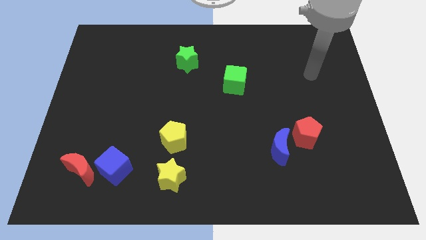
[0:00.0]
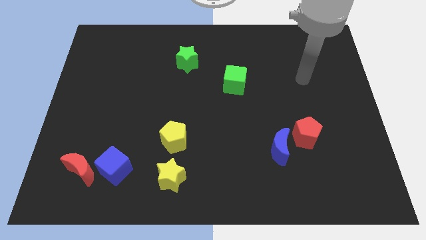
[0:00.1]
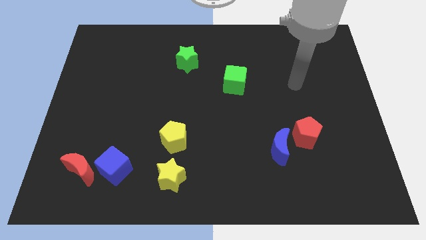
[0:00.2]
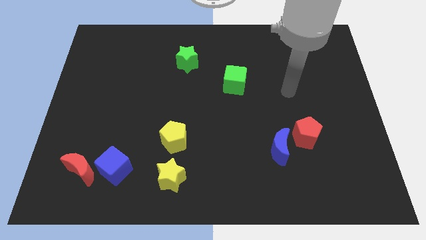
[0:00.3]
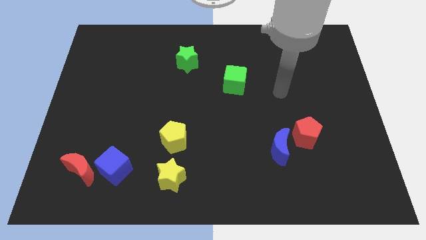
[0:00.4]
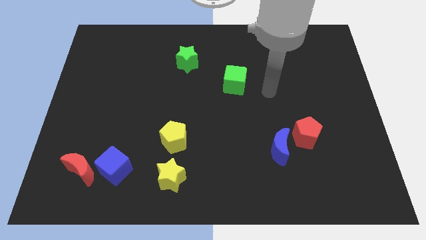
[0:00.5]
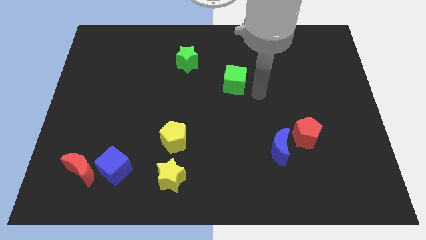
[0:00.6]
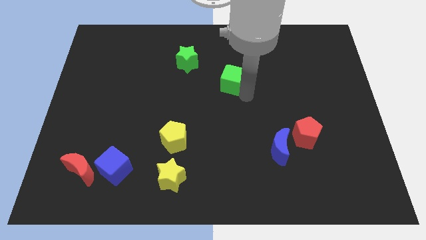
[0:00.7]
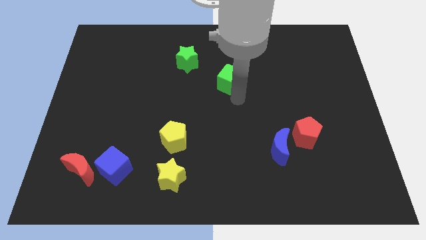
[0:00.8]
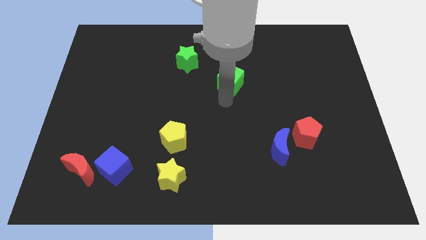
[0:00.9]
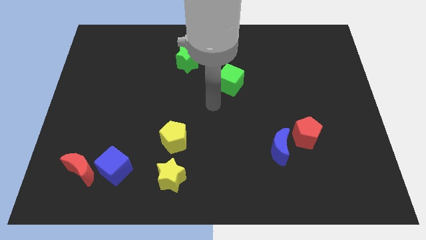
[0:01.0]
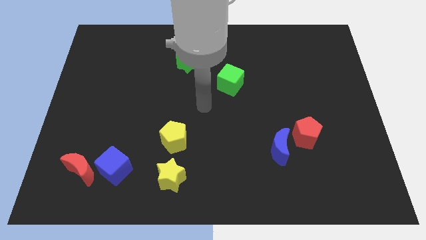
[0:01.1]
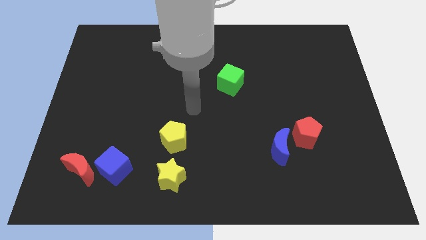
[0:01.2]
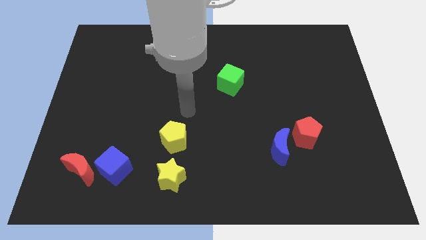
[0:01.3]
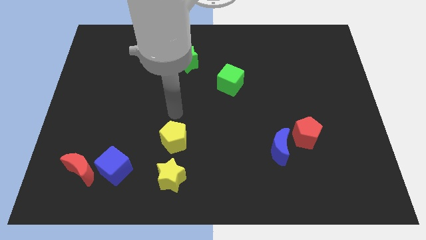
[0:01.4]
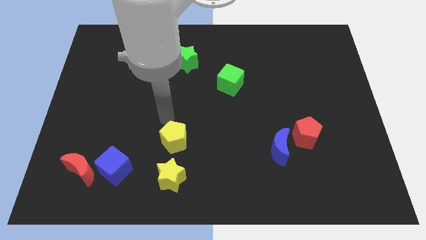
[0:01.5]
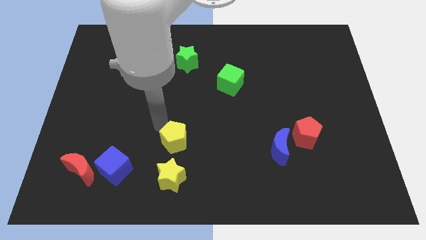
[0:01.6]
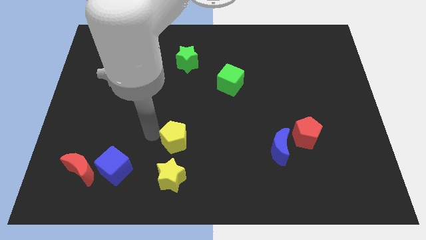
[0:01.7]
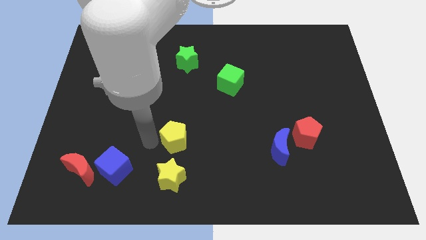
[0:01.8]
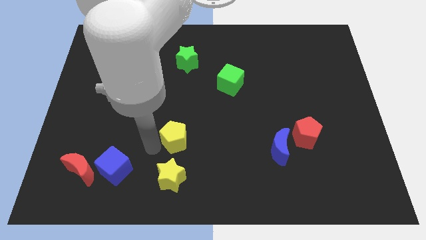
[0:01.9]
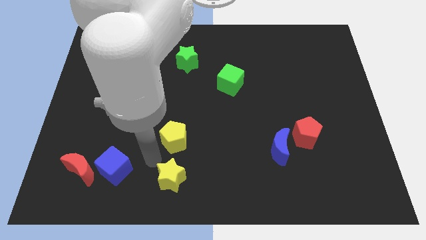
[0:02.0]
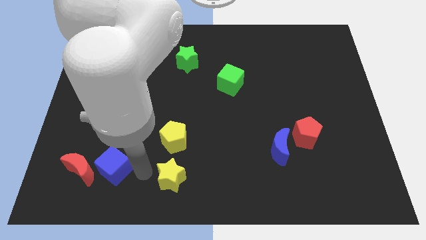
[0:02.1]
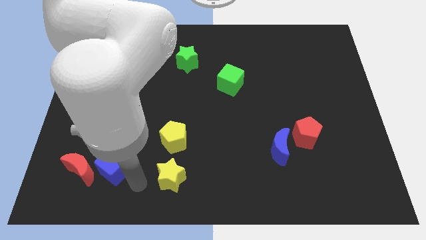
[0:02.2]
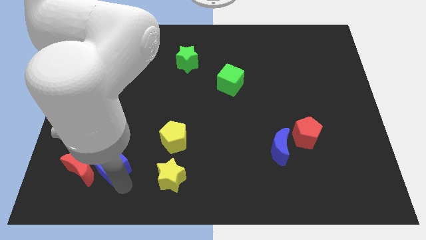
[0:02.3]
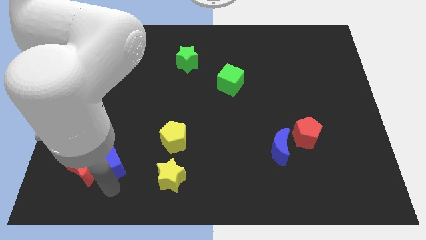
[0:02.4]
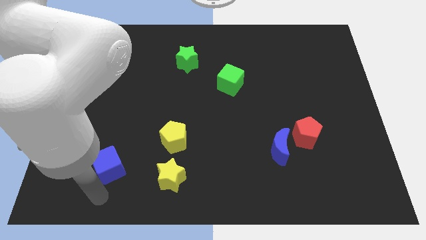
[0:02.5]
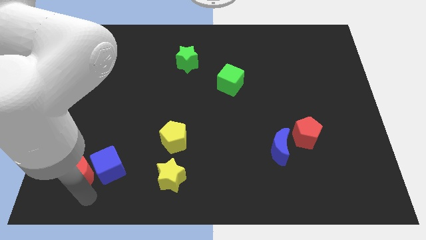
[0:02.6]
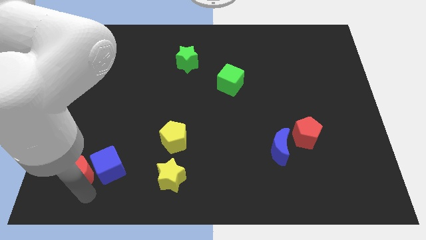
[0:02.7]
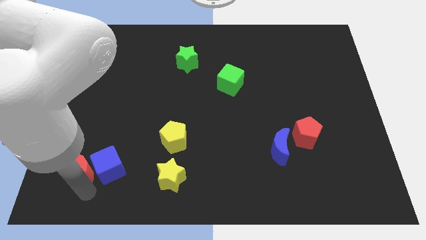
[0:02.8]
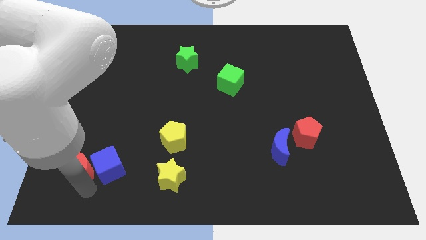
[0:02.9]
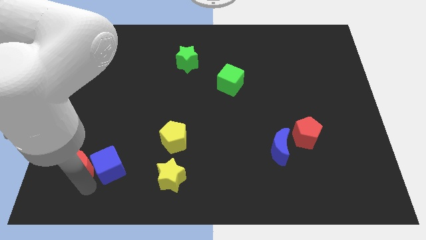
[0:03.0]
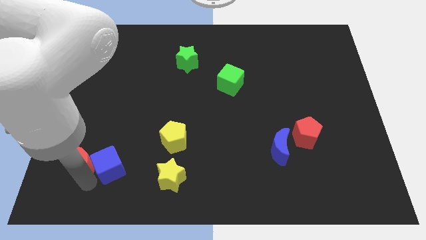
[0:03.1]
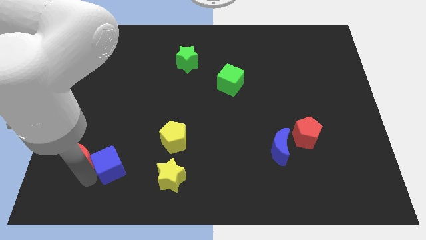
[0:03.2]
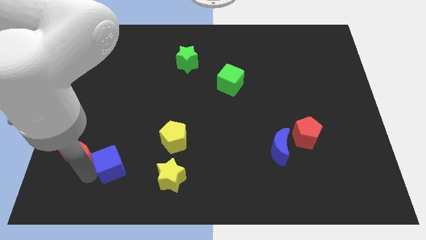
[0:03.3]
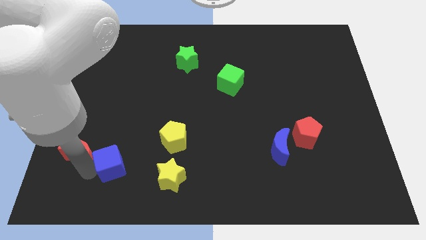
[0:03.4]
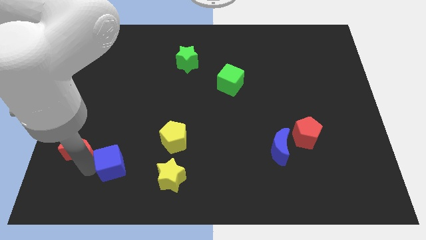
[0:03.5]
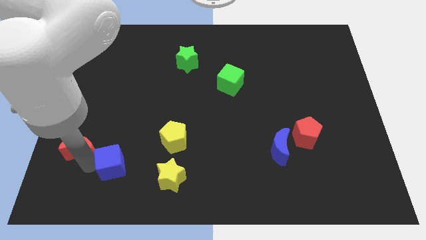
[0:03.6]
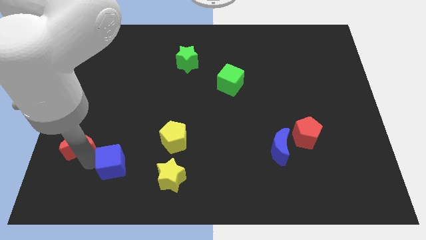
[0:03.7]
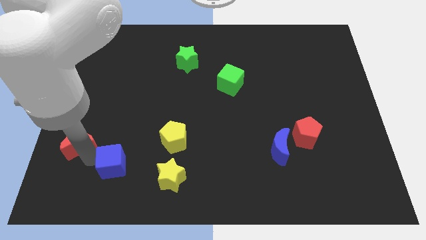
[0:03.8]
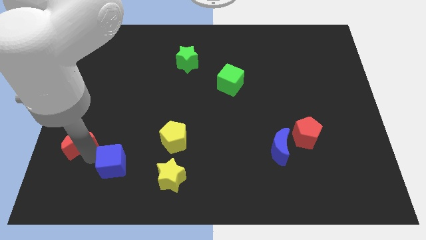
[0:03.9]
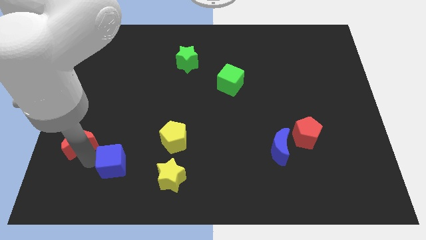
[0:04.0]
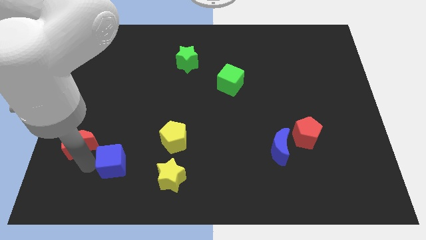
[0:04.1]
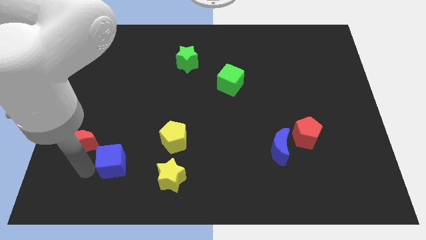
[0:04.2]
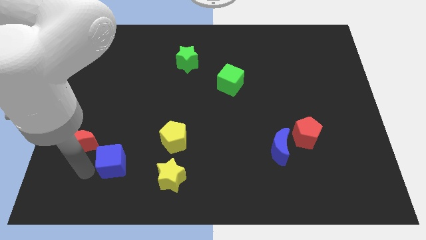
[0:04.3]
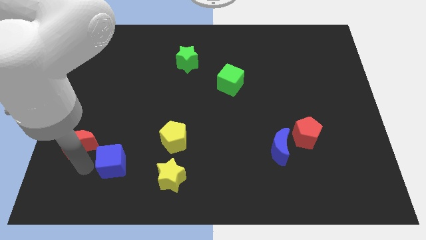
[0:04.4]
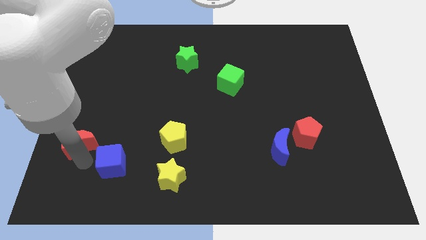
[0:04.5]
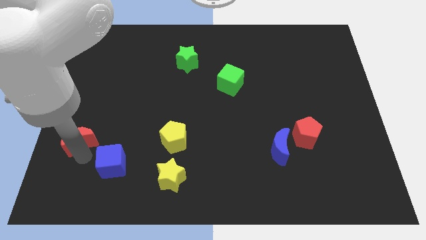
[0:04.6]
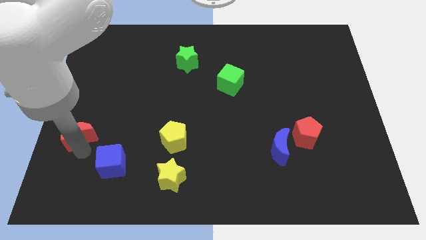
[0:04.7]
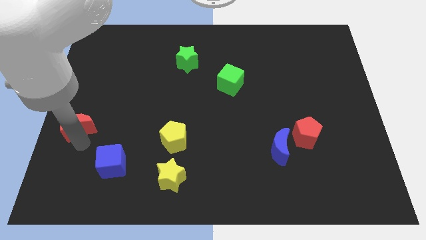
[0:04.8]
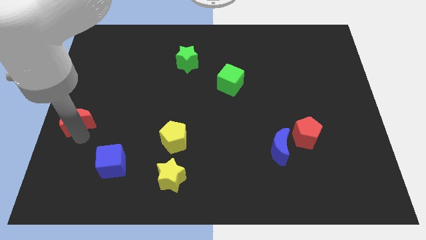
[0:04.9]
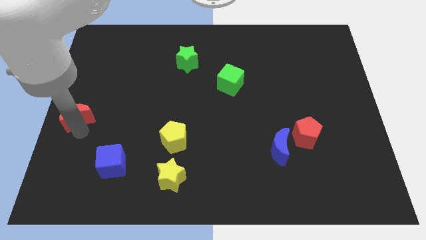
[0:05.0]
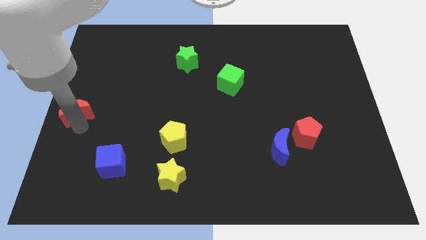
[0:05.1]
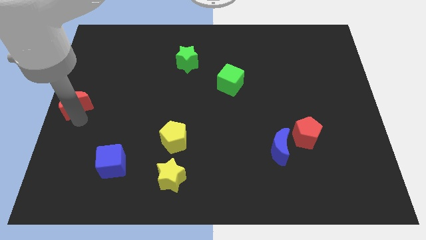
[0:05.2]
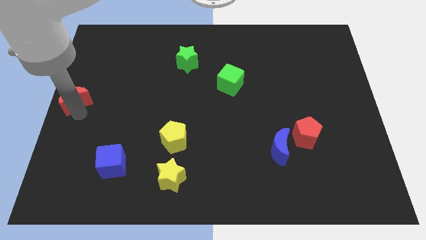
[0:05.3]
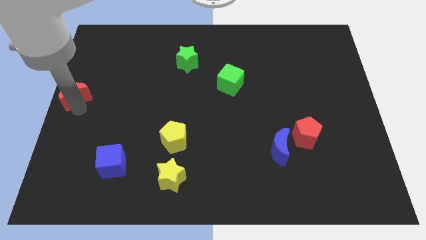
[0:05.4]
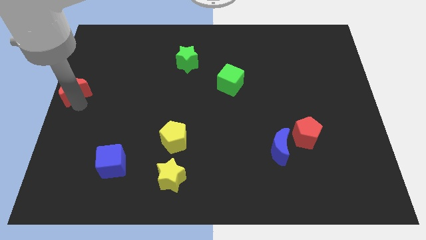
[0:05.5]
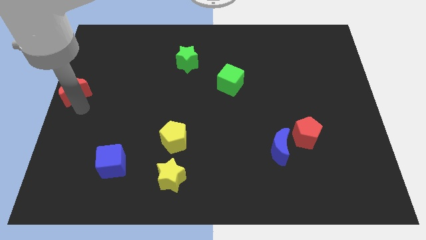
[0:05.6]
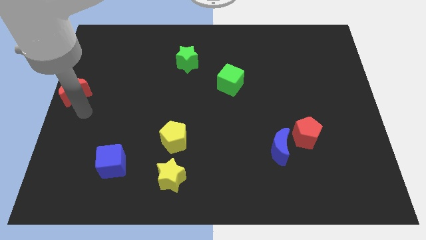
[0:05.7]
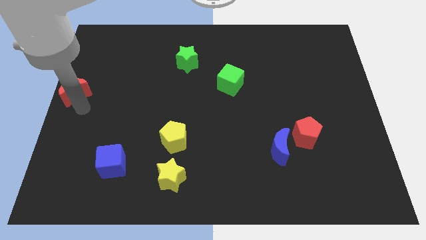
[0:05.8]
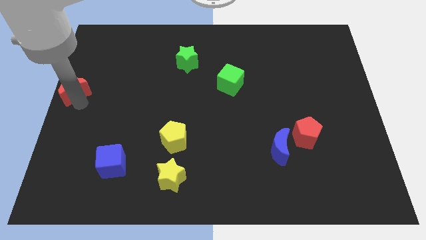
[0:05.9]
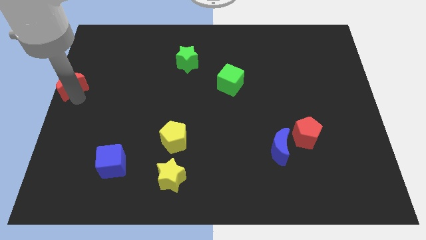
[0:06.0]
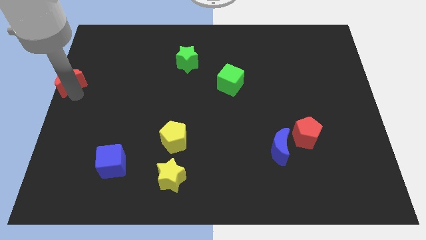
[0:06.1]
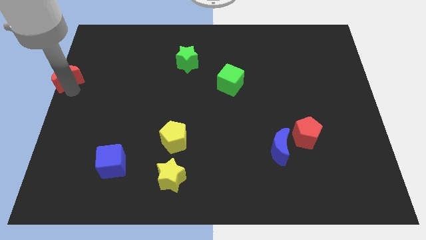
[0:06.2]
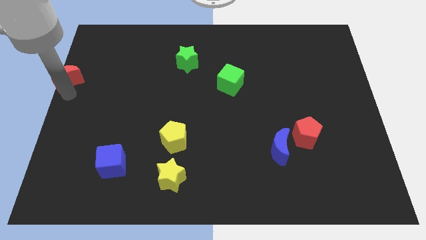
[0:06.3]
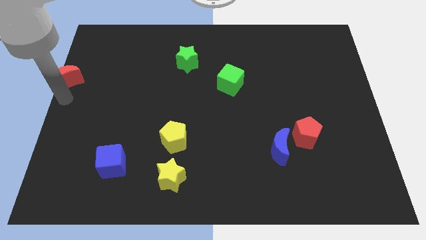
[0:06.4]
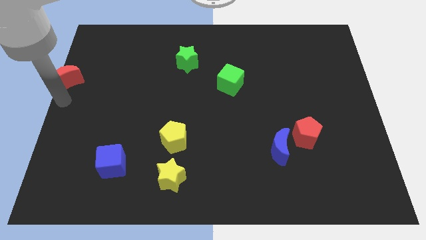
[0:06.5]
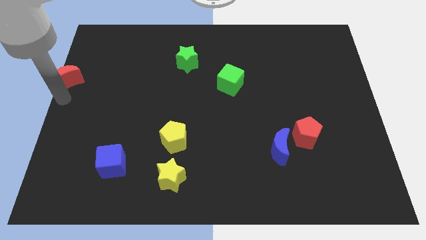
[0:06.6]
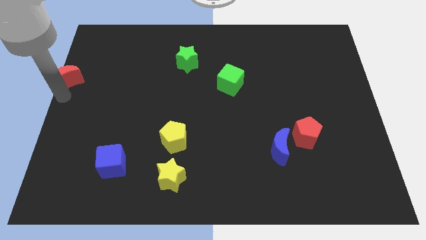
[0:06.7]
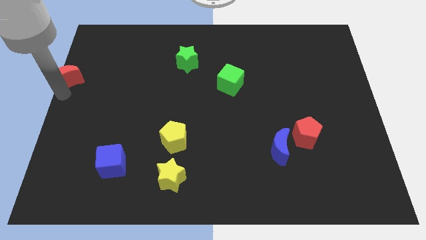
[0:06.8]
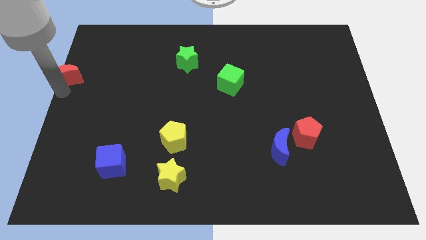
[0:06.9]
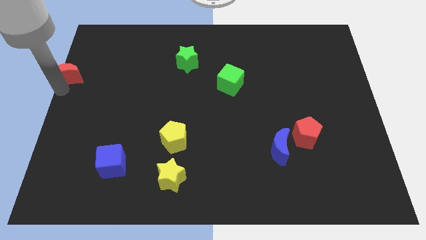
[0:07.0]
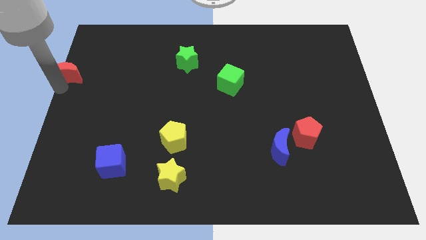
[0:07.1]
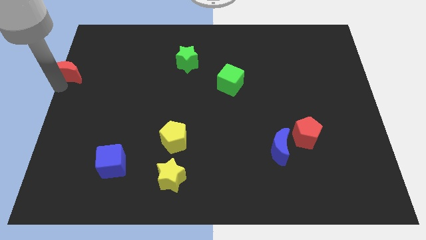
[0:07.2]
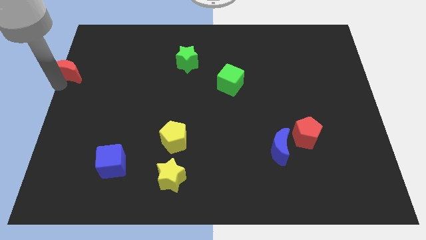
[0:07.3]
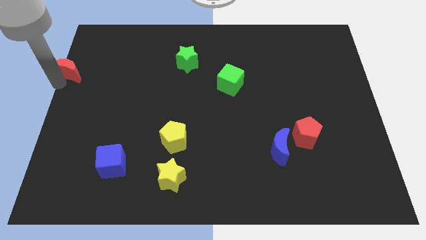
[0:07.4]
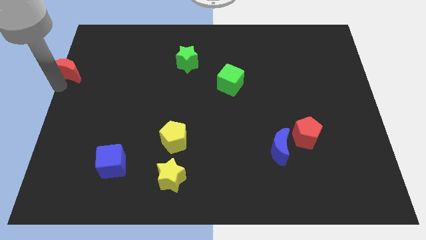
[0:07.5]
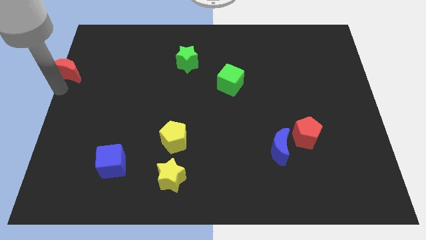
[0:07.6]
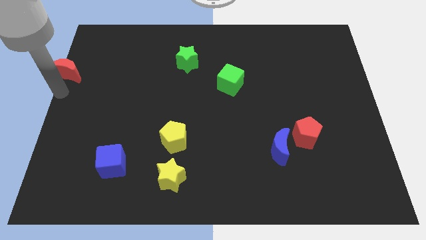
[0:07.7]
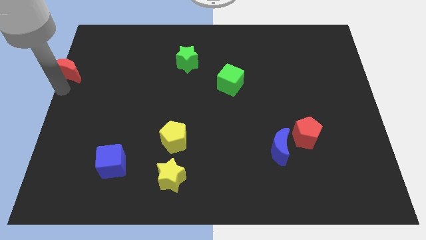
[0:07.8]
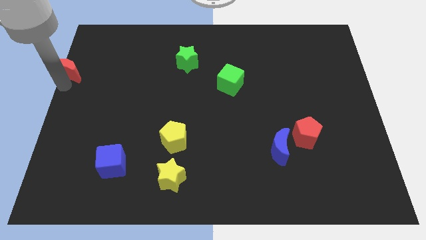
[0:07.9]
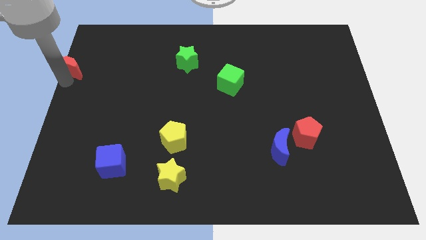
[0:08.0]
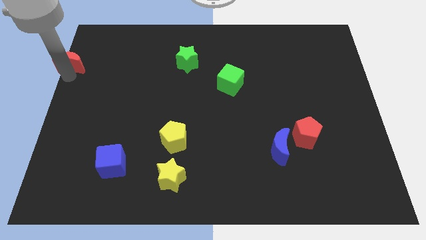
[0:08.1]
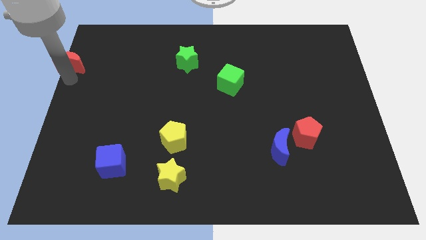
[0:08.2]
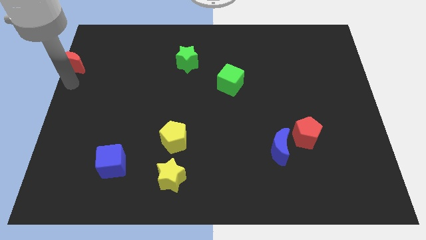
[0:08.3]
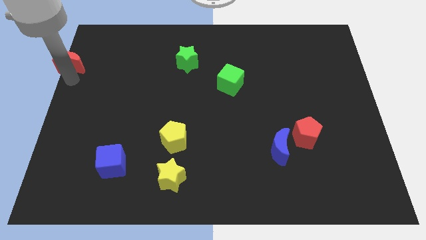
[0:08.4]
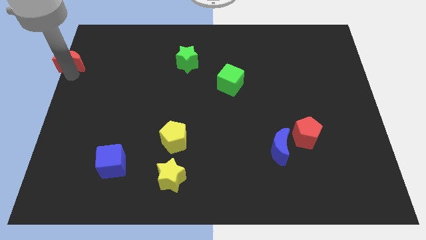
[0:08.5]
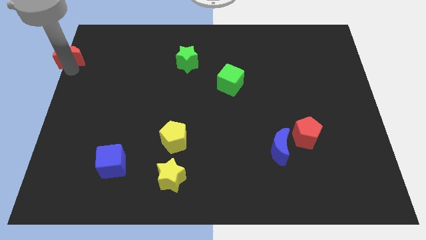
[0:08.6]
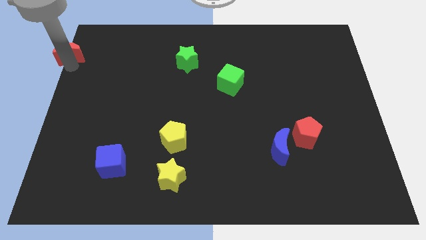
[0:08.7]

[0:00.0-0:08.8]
slide the red moon to the top left of the board
